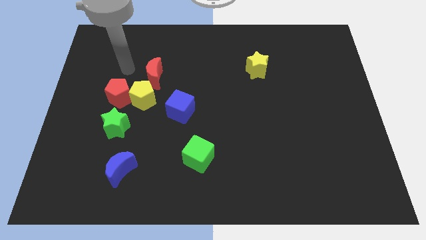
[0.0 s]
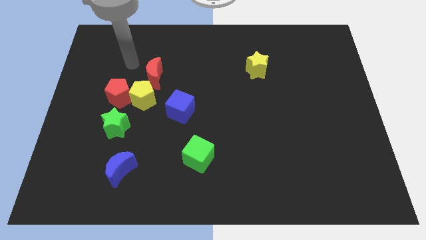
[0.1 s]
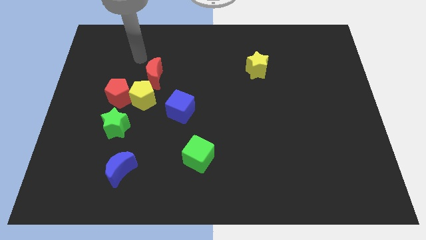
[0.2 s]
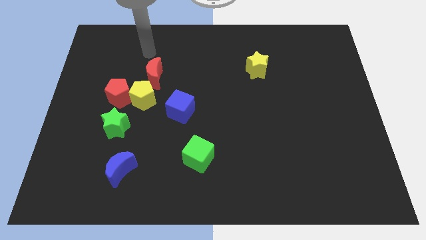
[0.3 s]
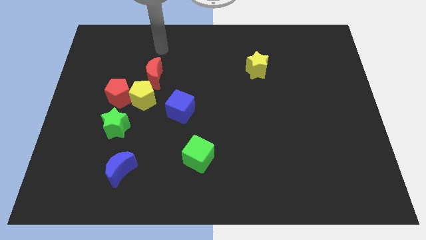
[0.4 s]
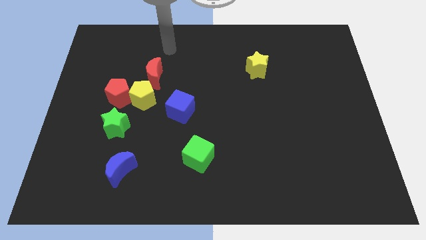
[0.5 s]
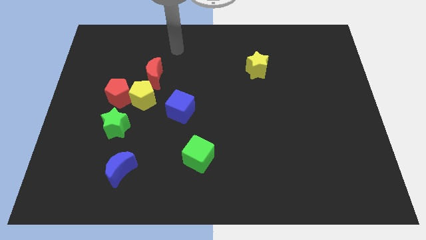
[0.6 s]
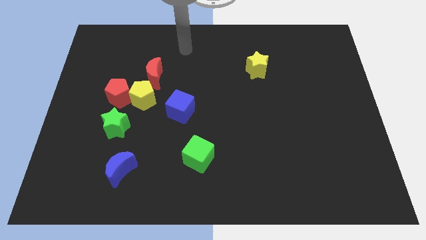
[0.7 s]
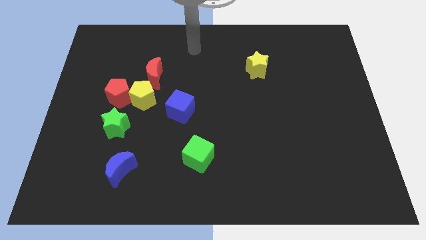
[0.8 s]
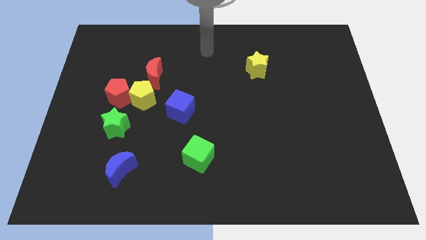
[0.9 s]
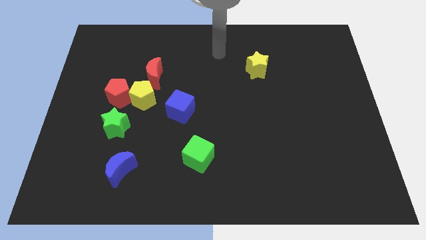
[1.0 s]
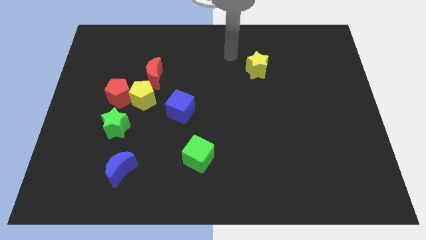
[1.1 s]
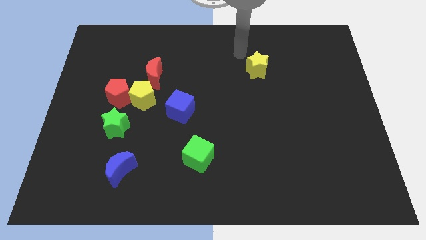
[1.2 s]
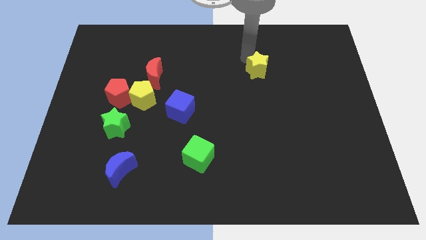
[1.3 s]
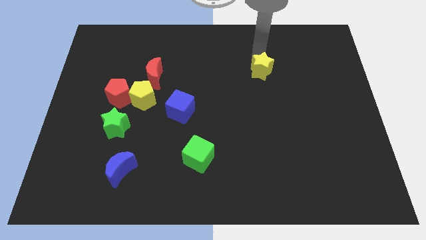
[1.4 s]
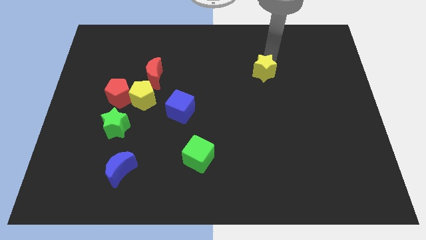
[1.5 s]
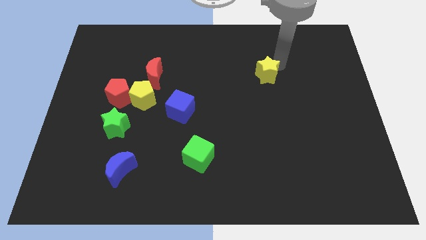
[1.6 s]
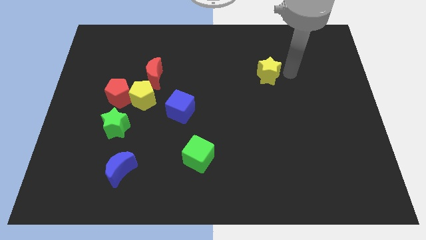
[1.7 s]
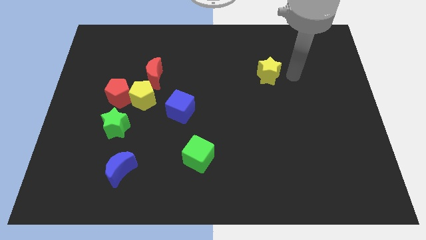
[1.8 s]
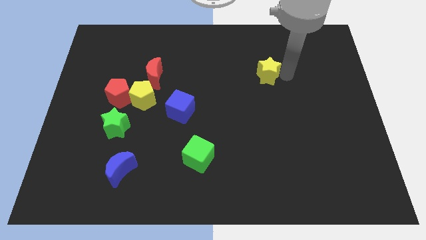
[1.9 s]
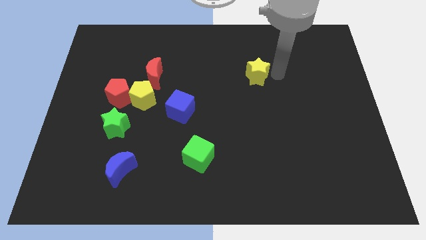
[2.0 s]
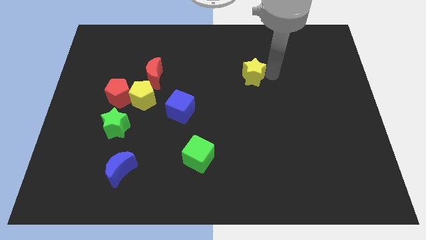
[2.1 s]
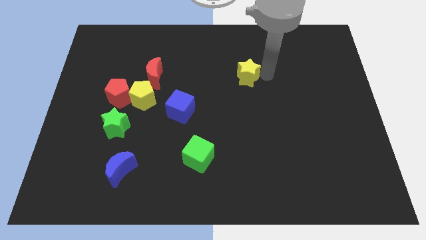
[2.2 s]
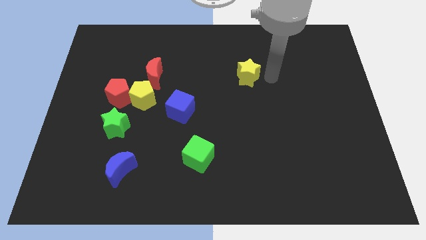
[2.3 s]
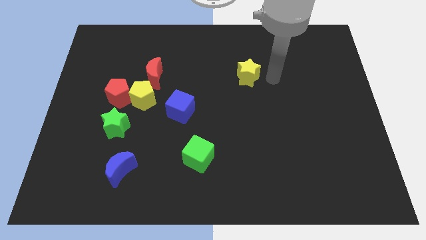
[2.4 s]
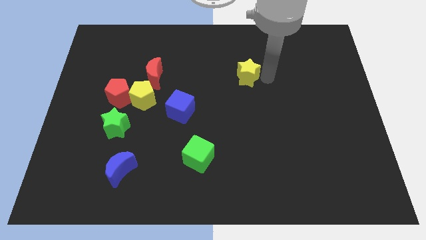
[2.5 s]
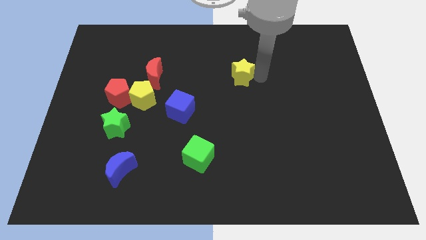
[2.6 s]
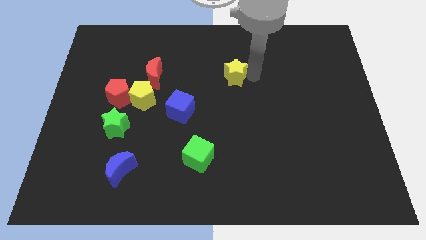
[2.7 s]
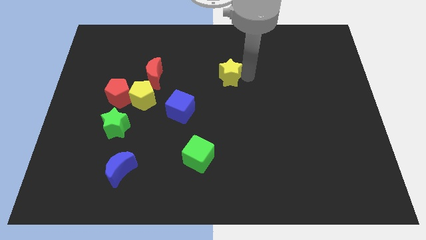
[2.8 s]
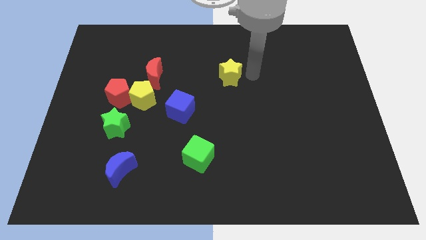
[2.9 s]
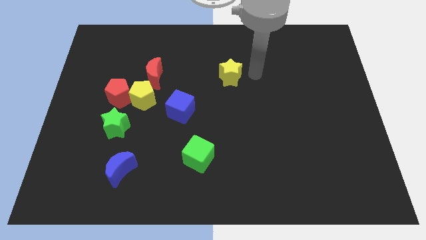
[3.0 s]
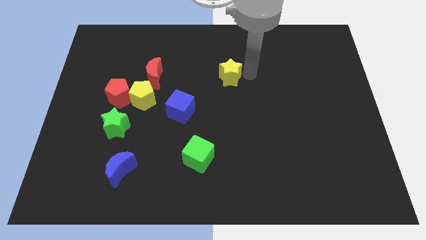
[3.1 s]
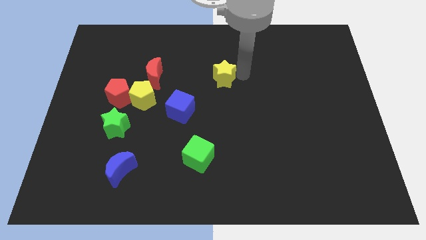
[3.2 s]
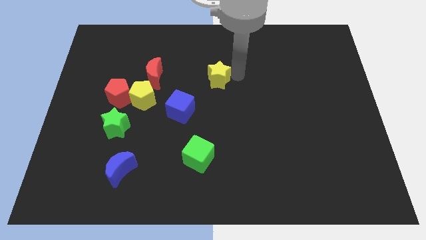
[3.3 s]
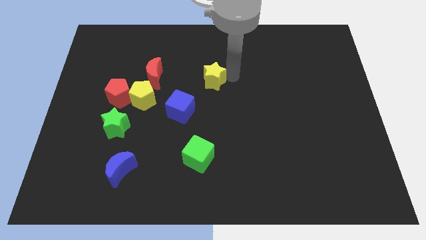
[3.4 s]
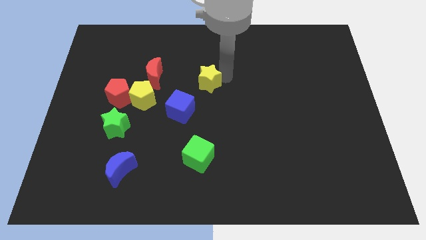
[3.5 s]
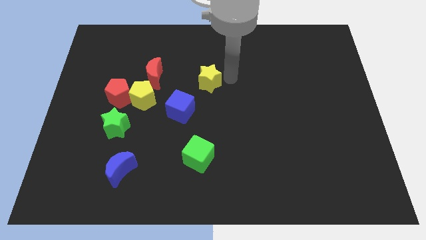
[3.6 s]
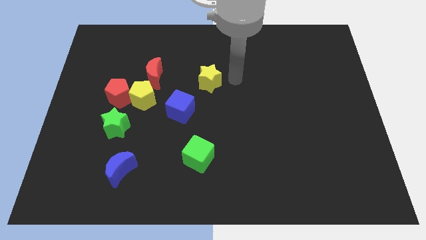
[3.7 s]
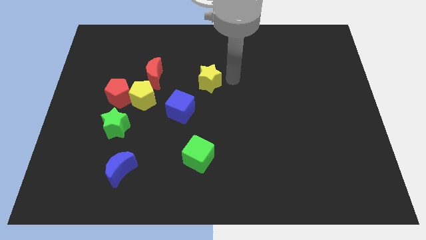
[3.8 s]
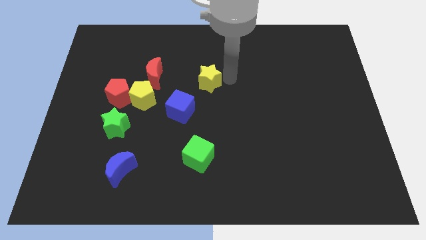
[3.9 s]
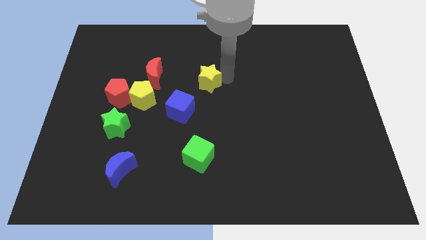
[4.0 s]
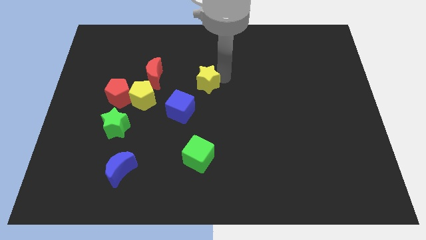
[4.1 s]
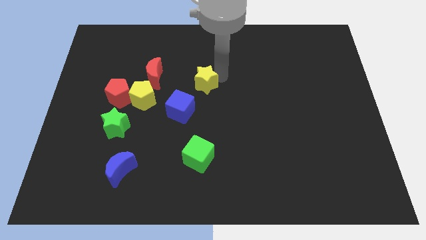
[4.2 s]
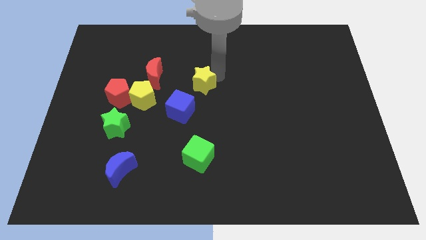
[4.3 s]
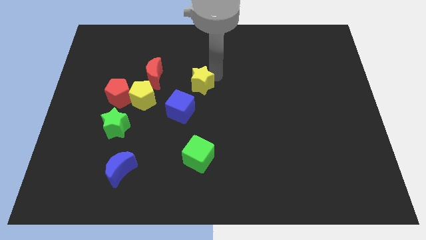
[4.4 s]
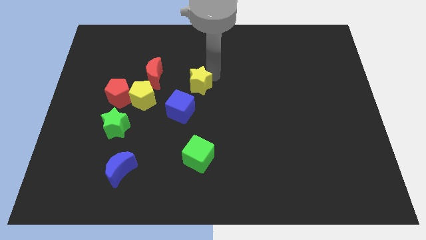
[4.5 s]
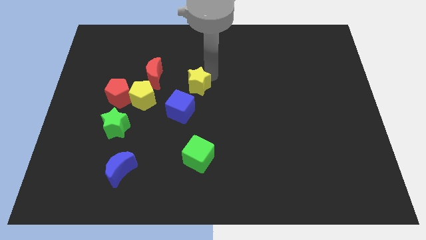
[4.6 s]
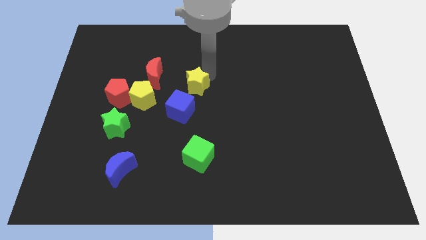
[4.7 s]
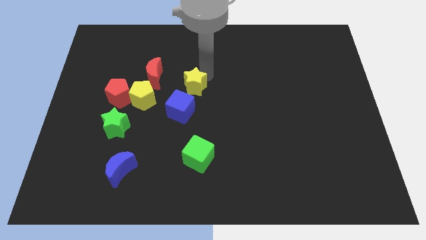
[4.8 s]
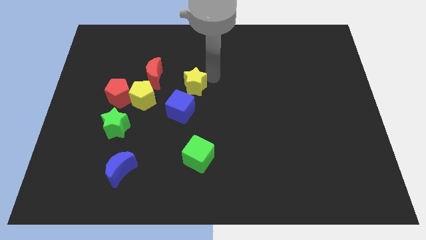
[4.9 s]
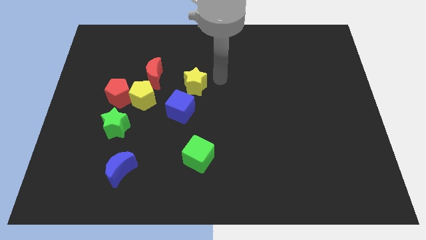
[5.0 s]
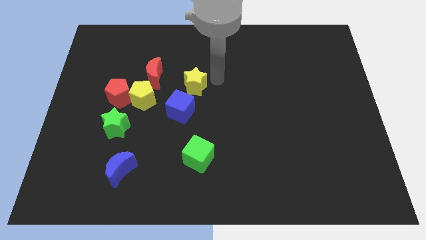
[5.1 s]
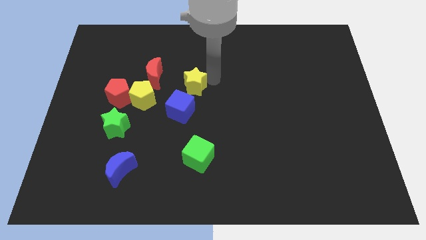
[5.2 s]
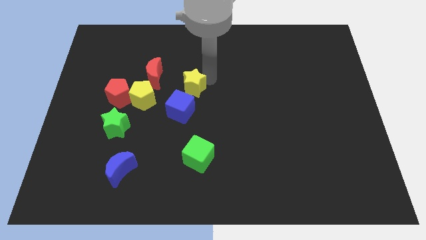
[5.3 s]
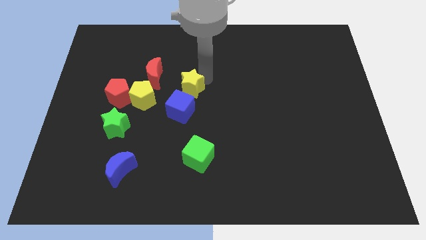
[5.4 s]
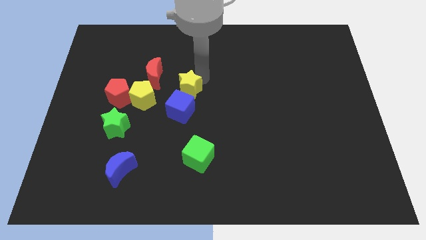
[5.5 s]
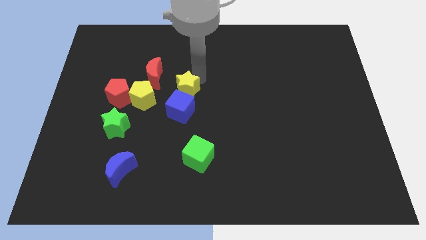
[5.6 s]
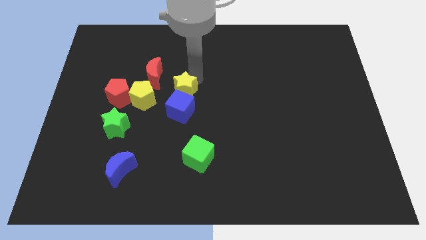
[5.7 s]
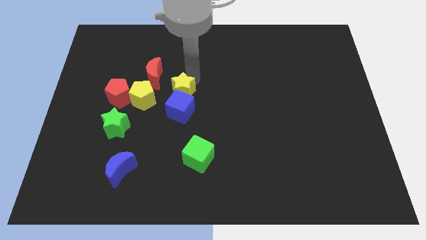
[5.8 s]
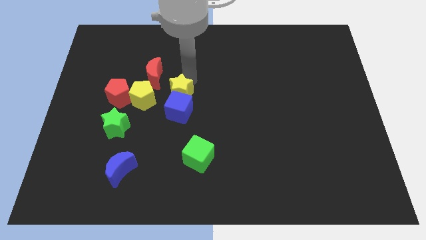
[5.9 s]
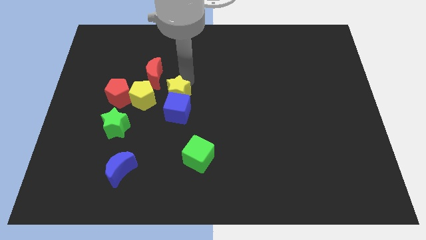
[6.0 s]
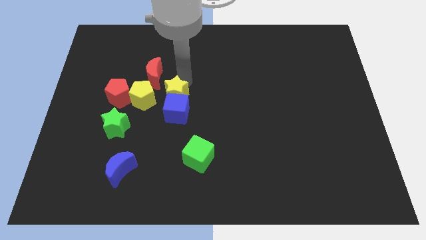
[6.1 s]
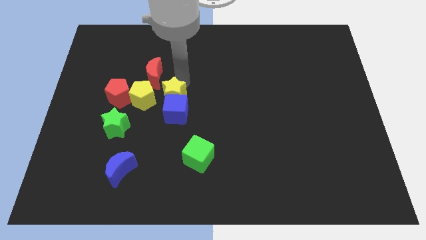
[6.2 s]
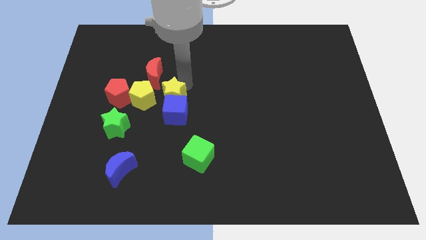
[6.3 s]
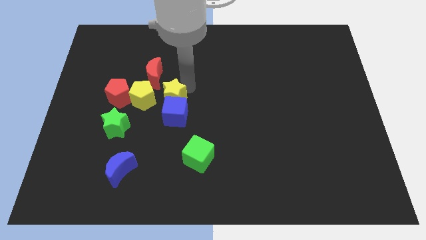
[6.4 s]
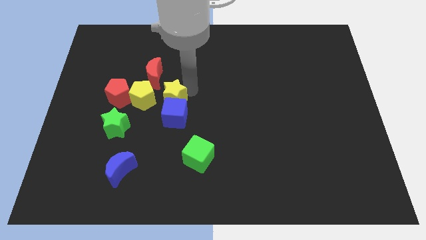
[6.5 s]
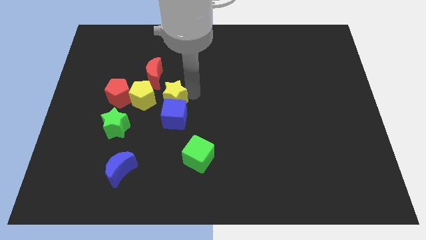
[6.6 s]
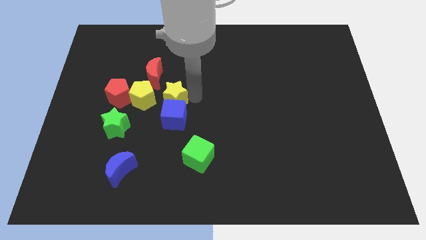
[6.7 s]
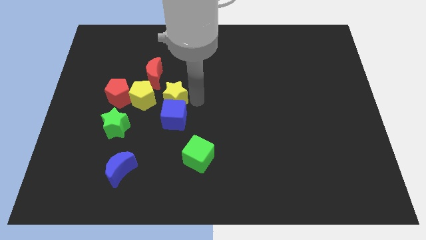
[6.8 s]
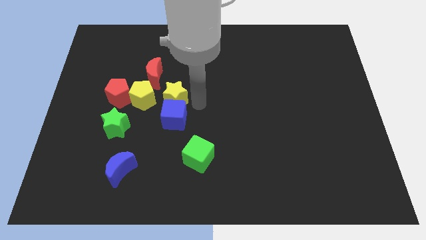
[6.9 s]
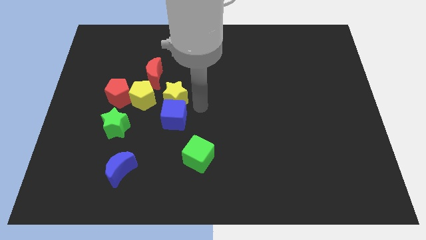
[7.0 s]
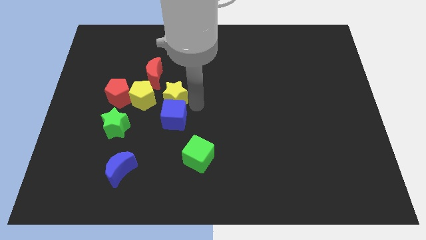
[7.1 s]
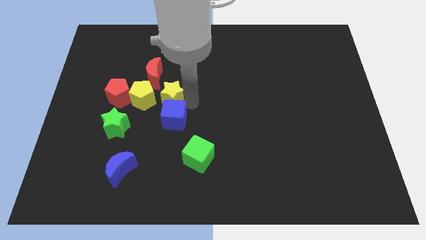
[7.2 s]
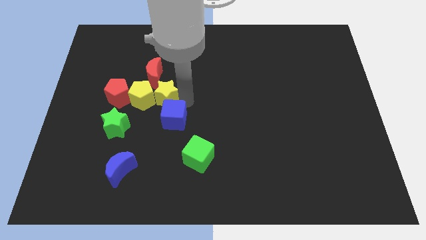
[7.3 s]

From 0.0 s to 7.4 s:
slide the yellow star next to the yellow pentagon
